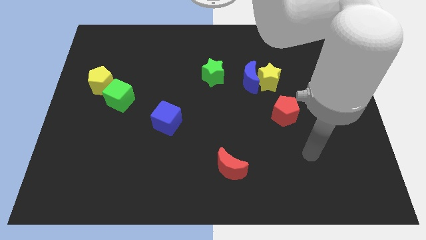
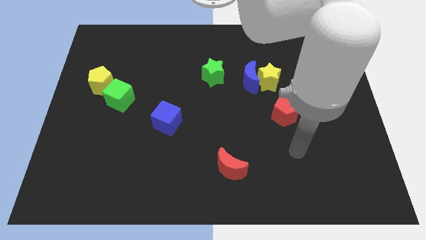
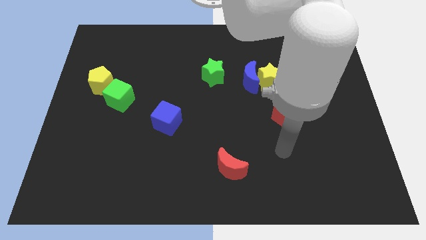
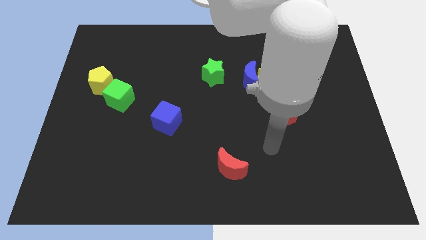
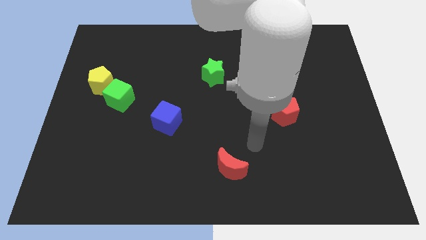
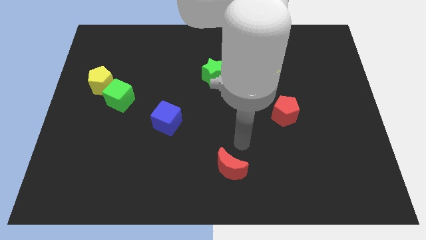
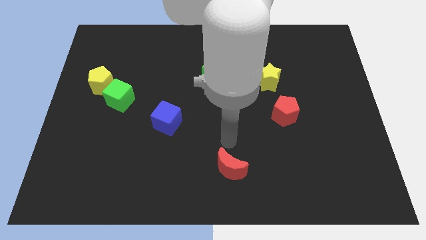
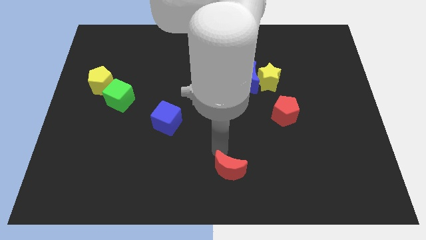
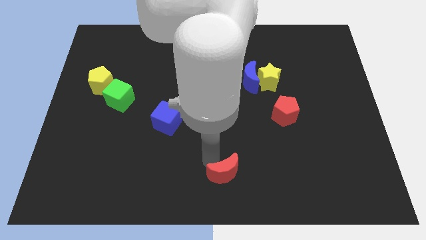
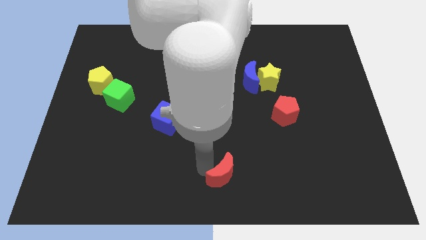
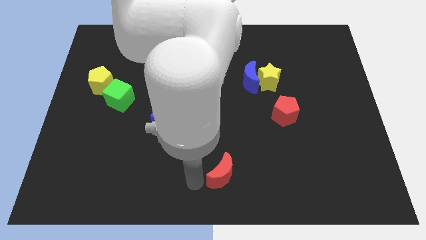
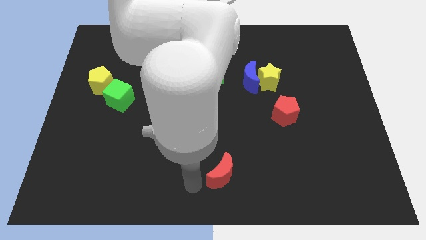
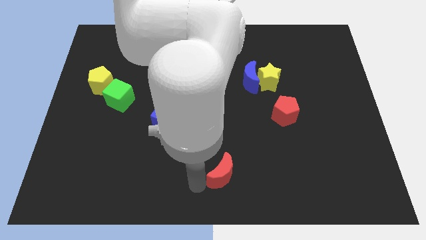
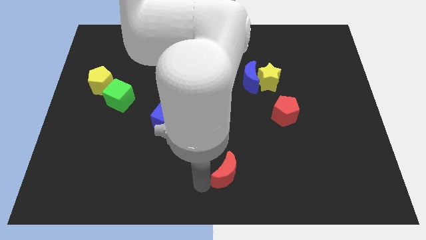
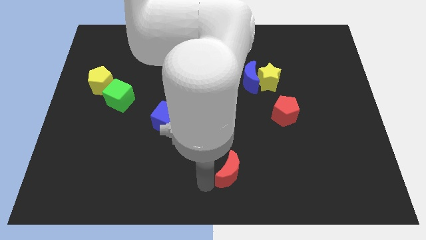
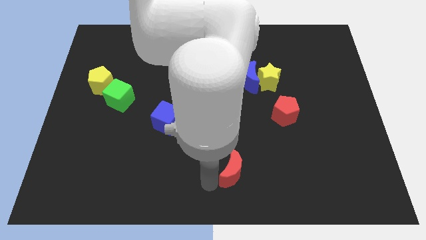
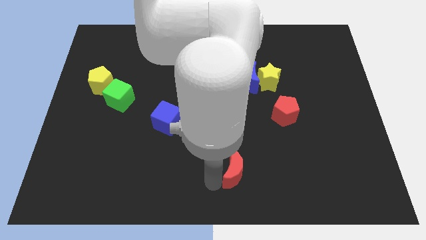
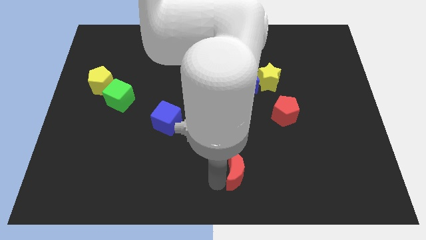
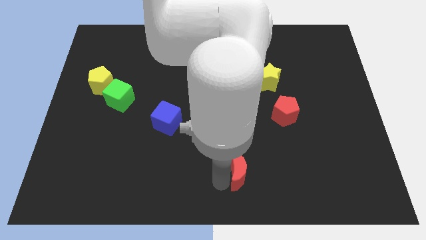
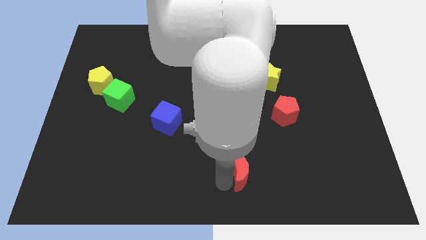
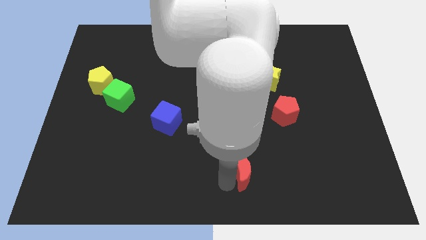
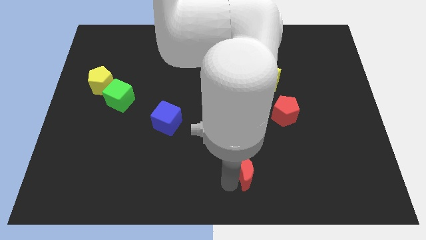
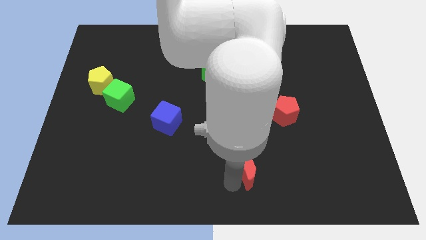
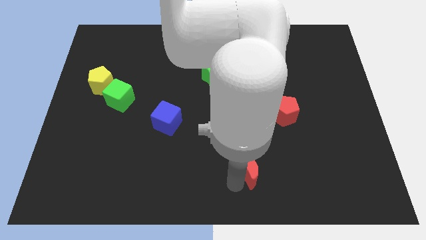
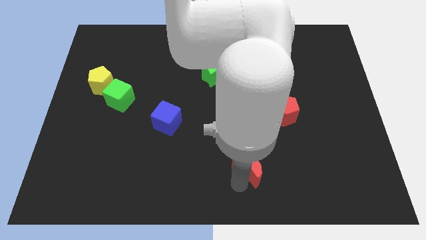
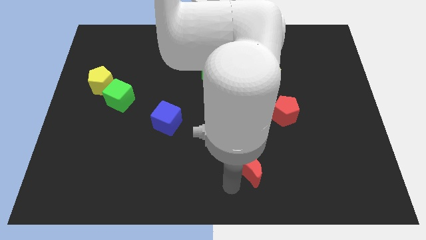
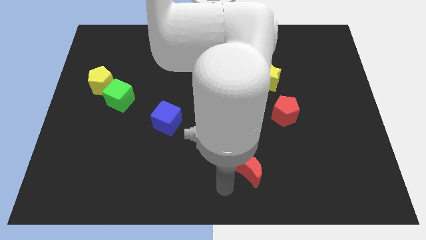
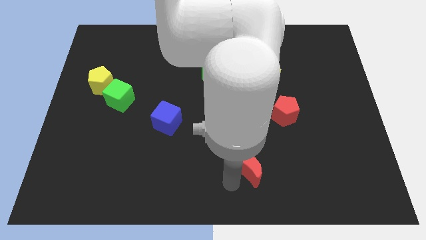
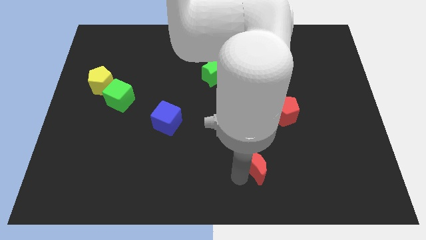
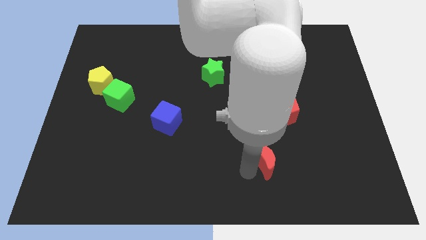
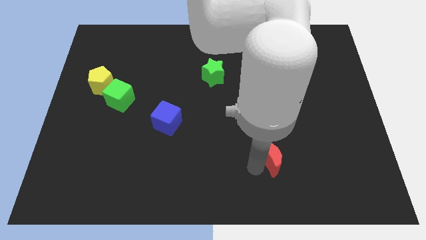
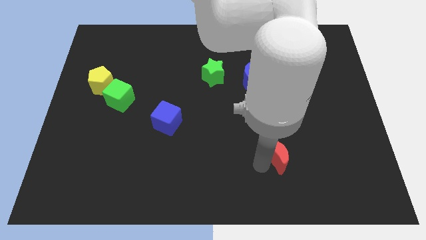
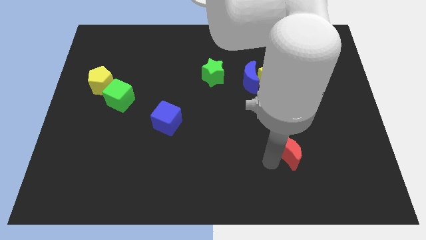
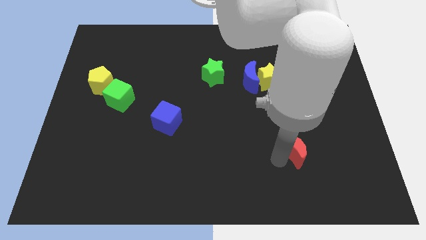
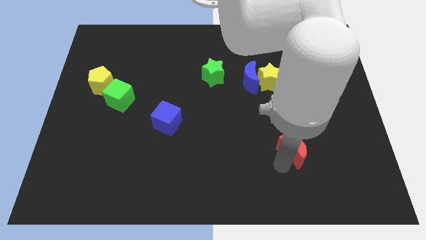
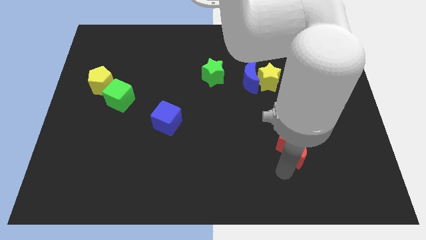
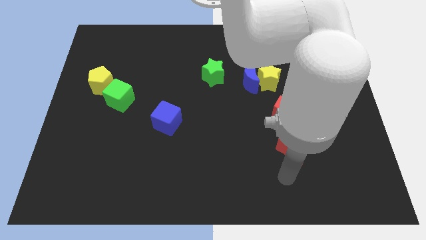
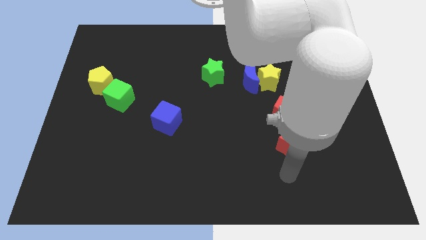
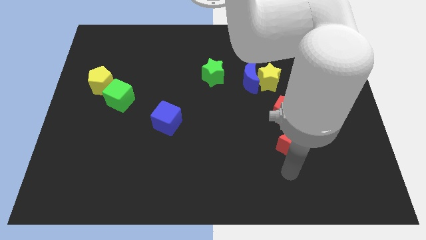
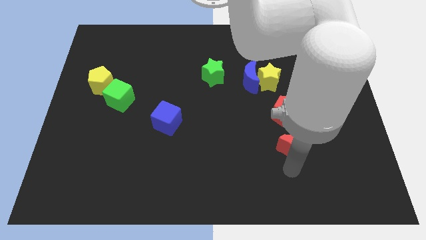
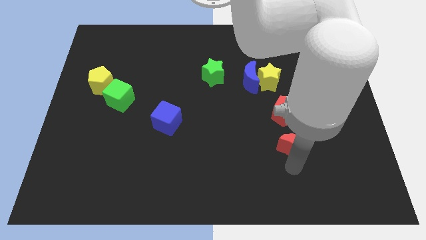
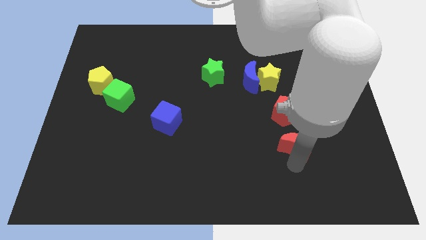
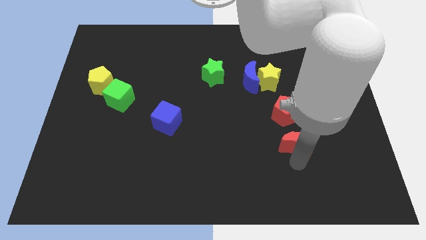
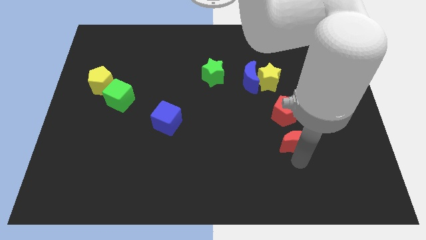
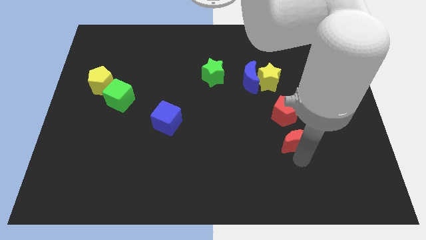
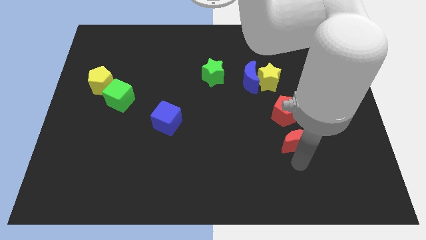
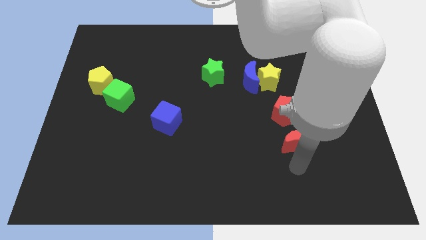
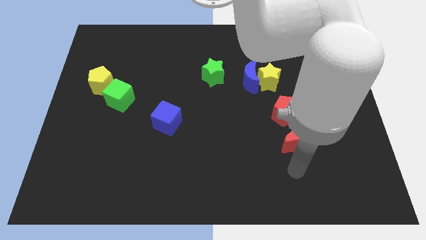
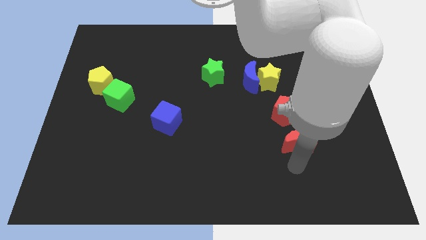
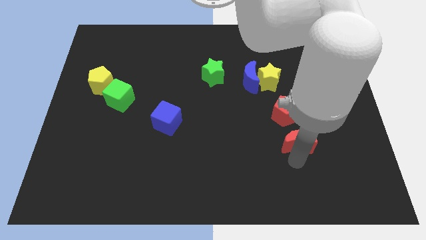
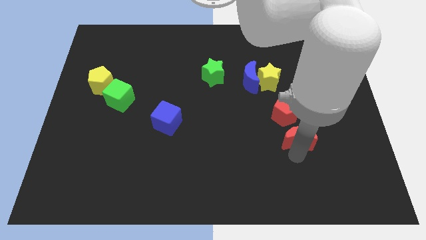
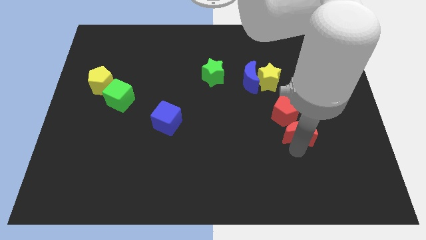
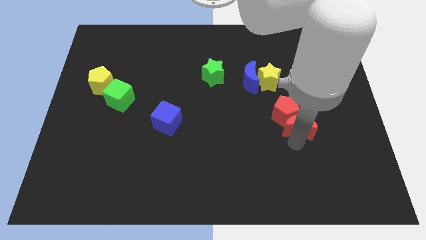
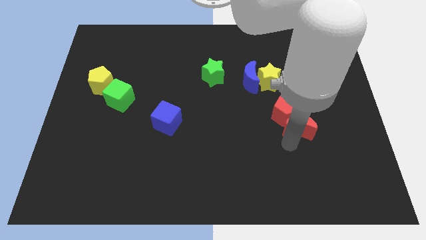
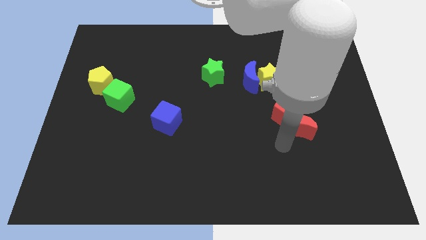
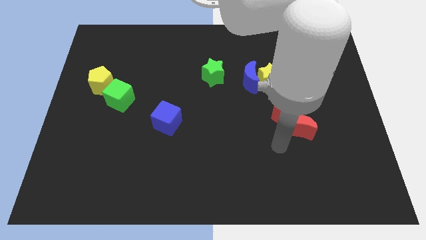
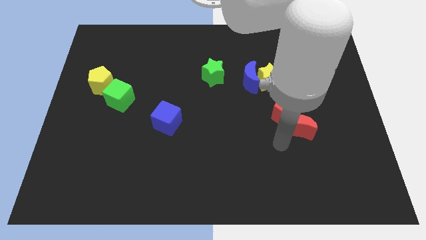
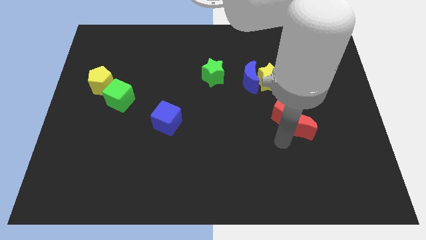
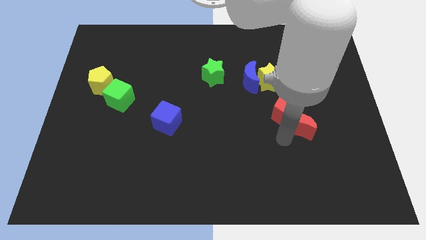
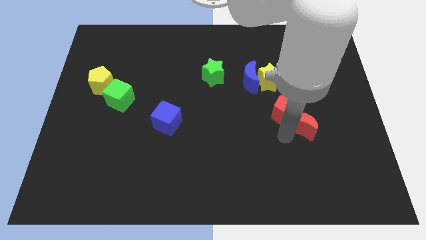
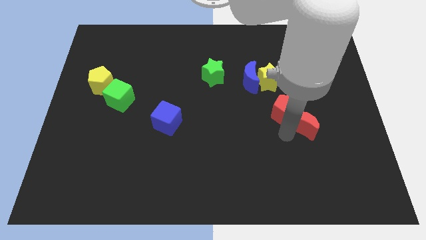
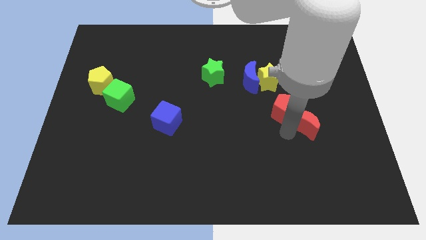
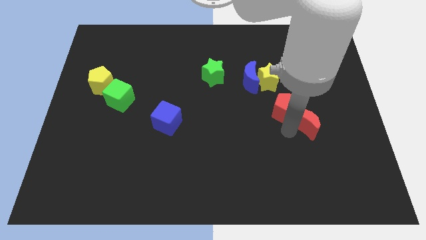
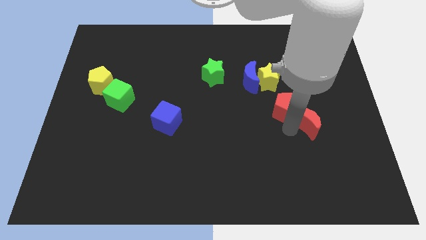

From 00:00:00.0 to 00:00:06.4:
slide the red moon upwards and to the right diagonally

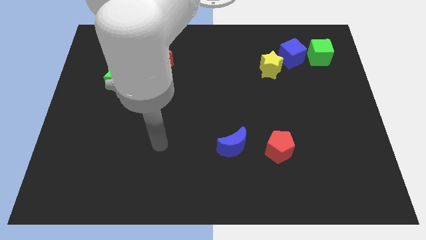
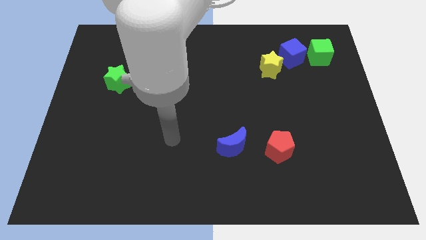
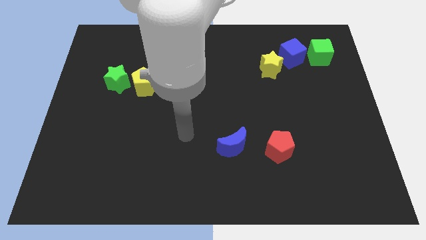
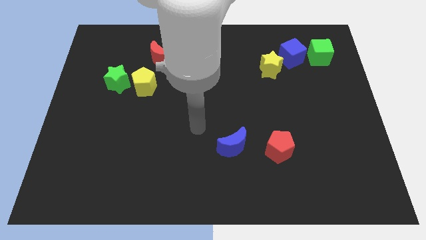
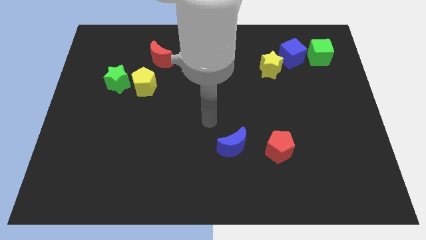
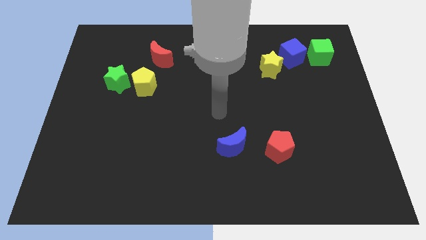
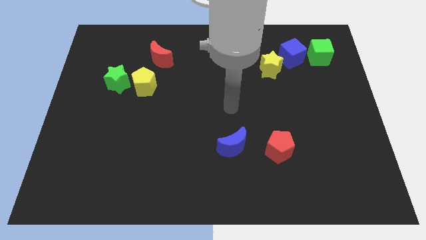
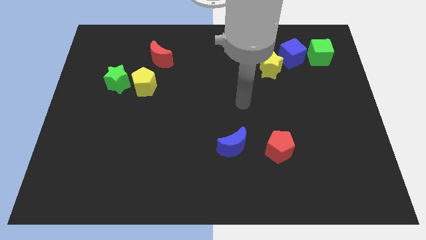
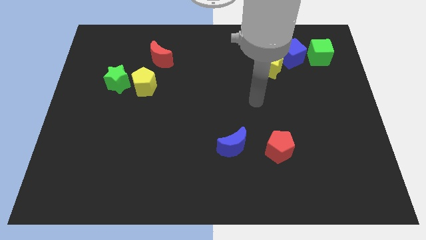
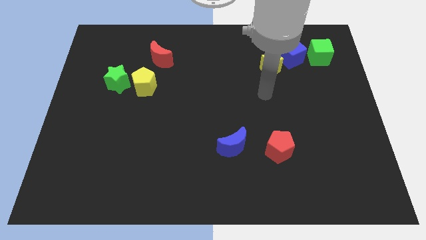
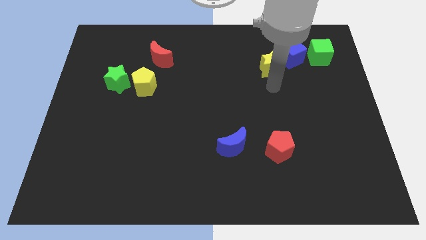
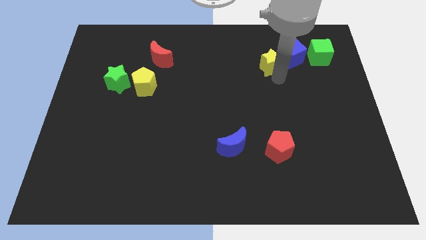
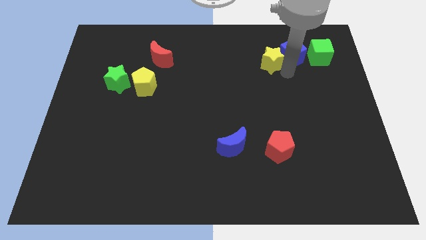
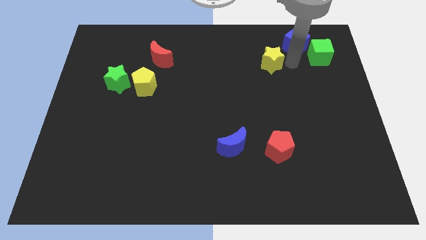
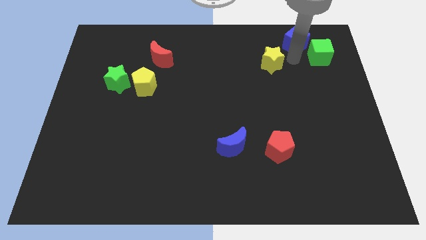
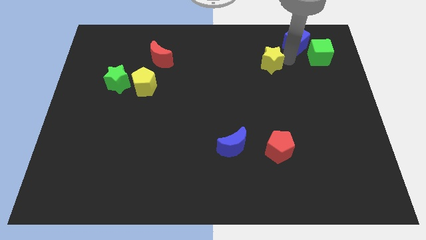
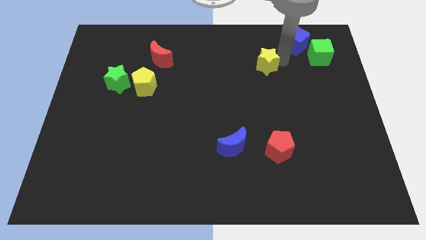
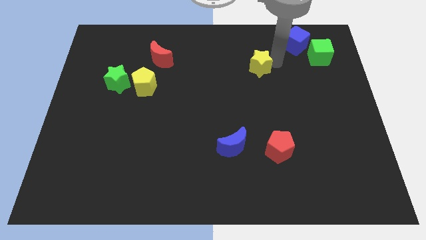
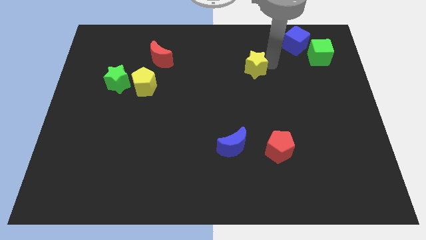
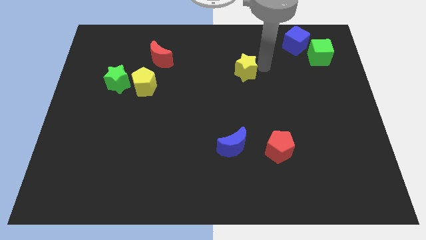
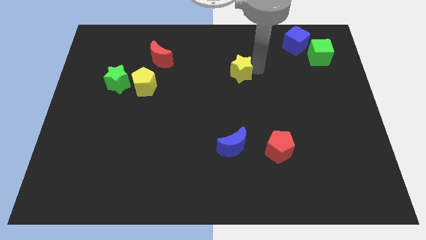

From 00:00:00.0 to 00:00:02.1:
slide the yellow star left a little bit
